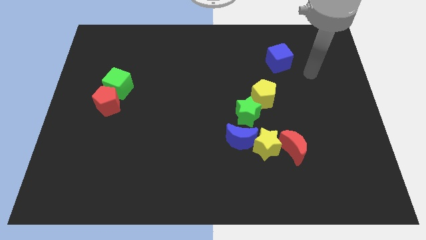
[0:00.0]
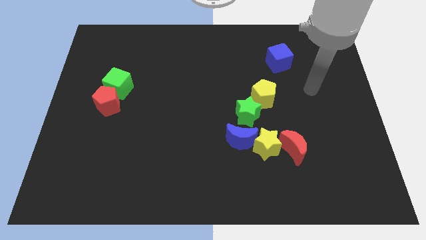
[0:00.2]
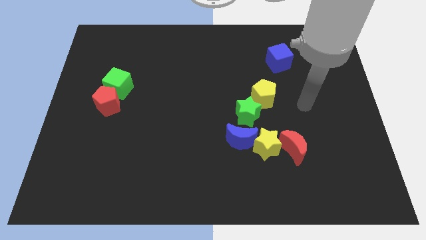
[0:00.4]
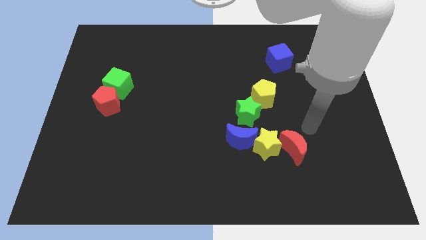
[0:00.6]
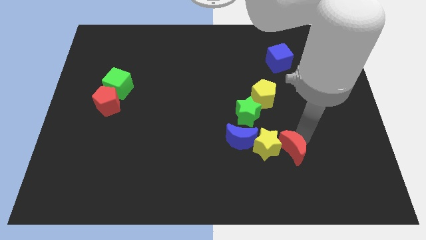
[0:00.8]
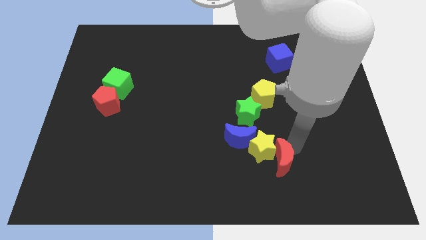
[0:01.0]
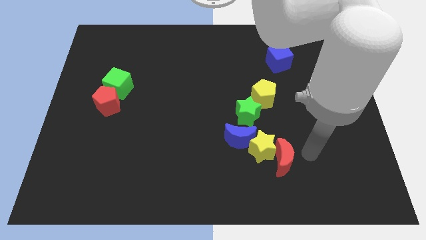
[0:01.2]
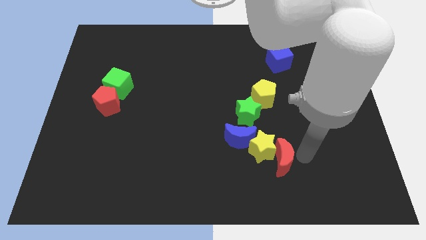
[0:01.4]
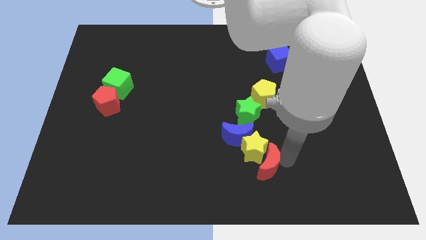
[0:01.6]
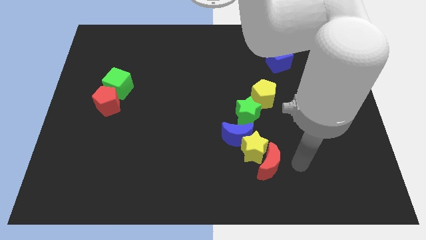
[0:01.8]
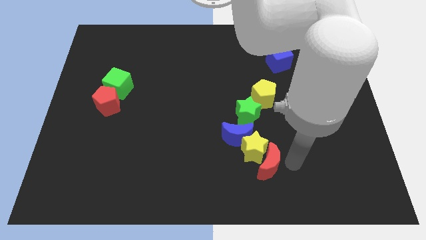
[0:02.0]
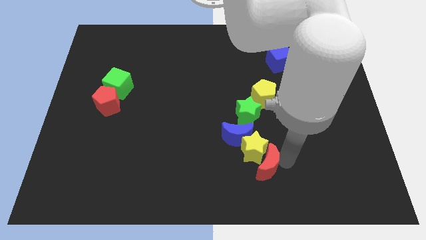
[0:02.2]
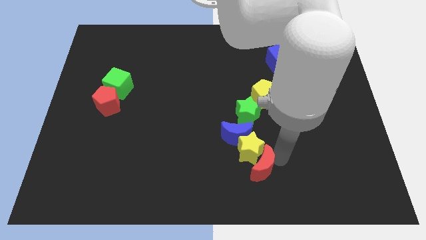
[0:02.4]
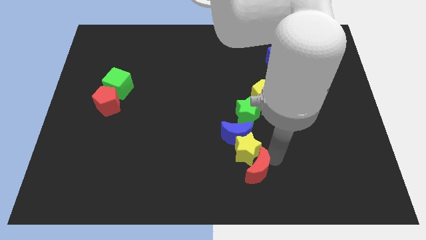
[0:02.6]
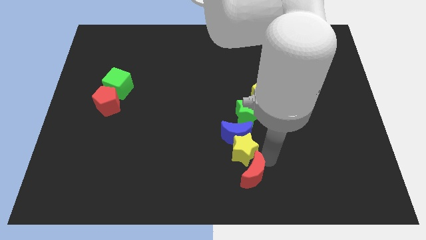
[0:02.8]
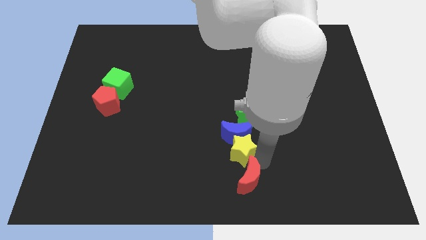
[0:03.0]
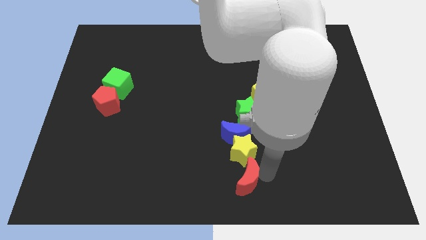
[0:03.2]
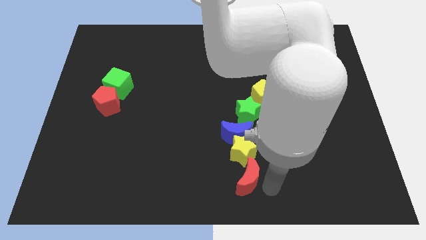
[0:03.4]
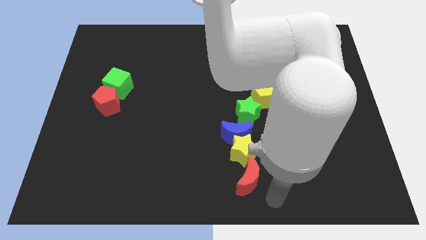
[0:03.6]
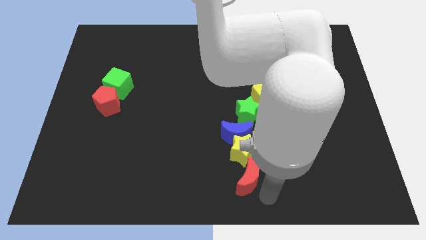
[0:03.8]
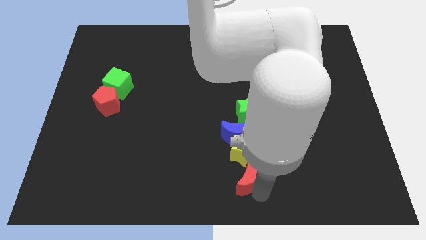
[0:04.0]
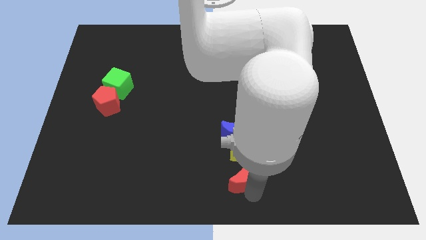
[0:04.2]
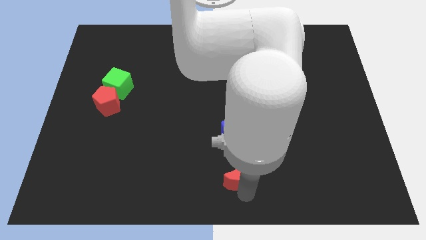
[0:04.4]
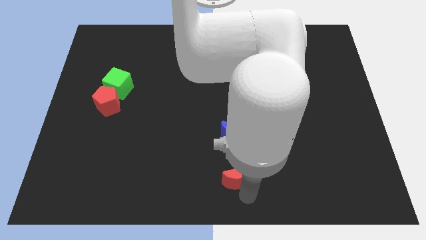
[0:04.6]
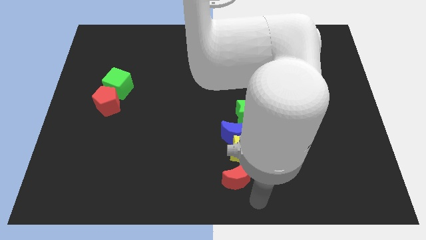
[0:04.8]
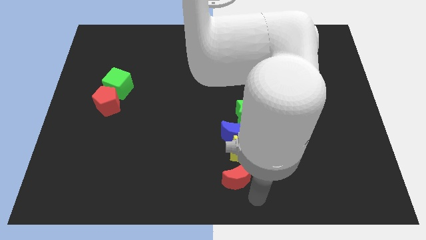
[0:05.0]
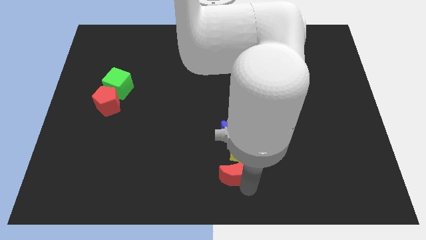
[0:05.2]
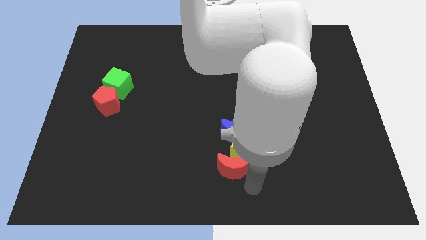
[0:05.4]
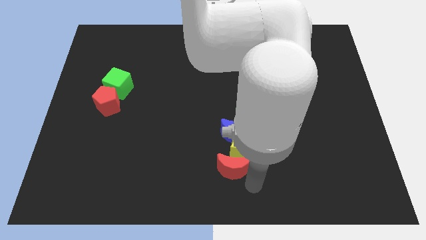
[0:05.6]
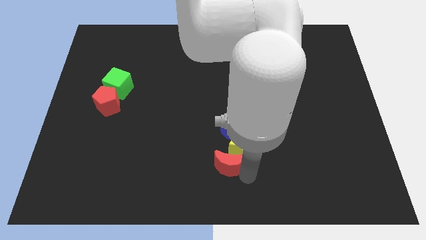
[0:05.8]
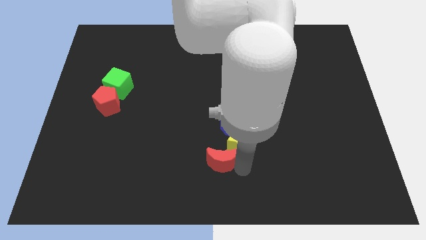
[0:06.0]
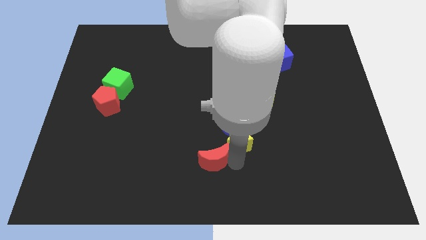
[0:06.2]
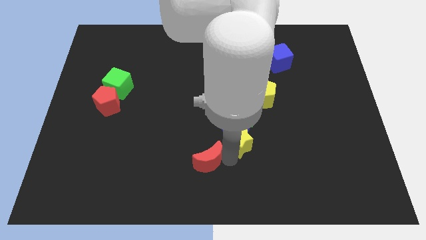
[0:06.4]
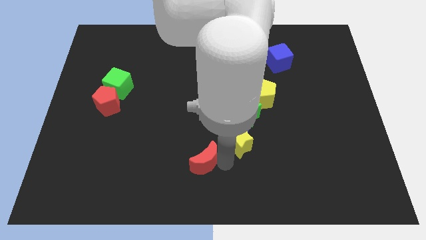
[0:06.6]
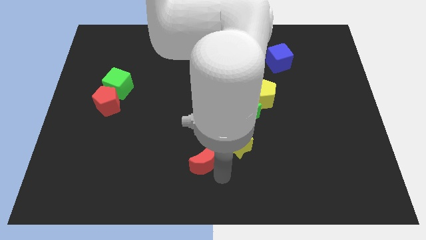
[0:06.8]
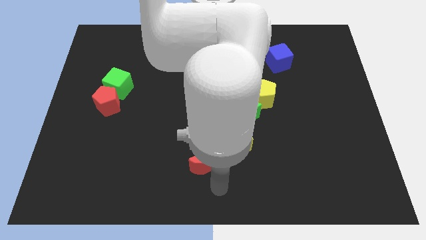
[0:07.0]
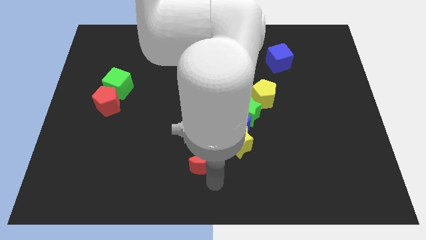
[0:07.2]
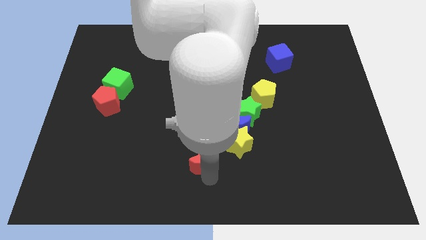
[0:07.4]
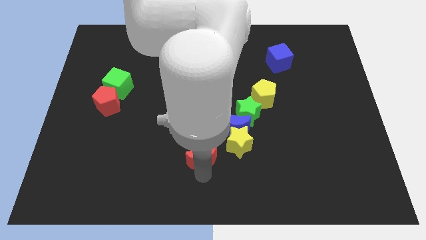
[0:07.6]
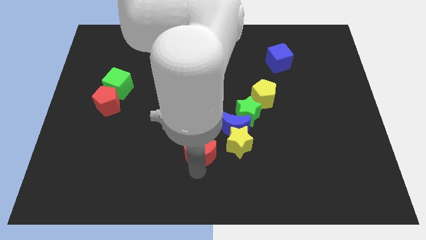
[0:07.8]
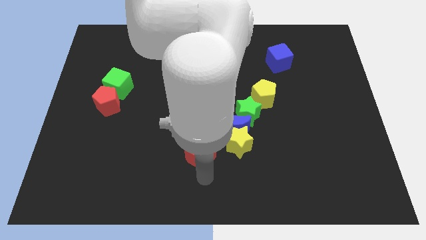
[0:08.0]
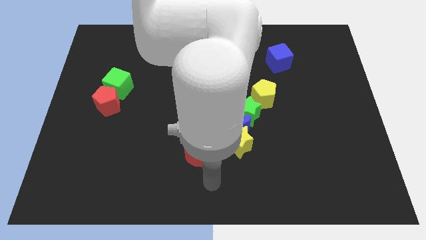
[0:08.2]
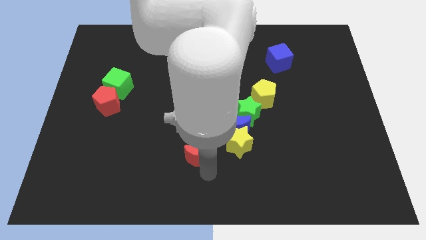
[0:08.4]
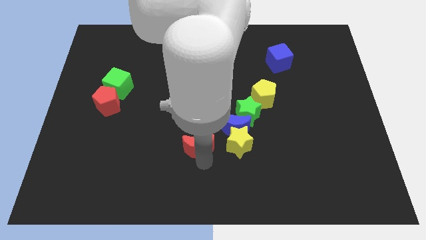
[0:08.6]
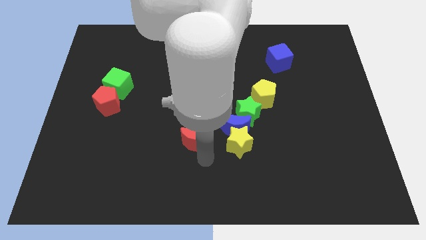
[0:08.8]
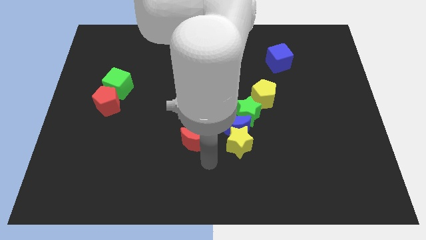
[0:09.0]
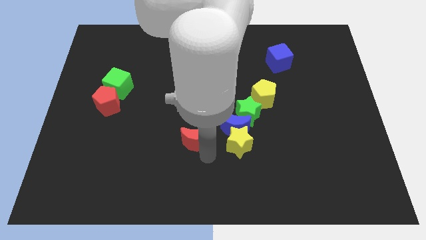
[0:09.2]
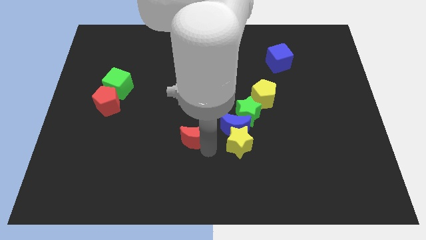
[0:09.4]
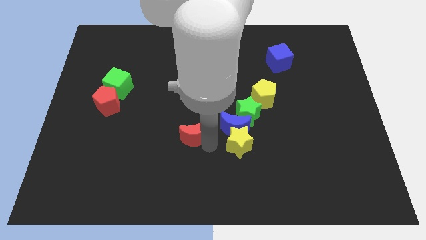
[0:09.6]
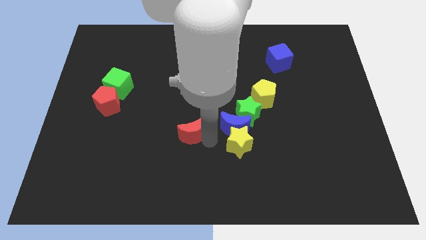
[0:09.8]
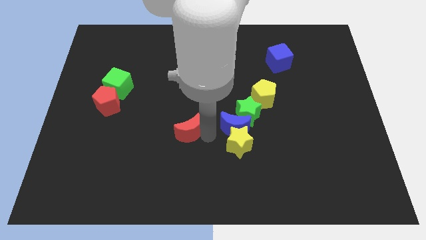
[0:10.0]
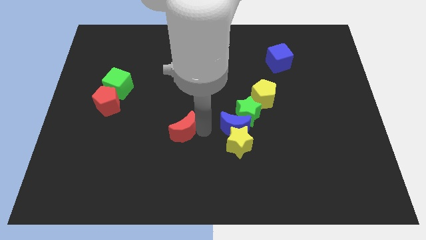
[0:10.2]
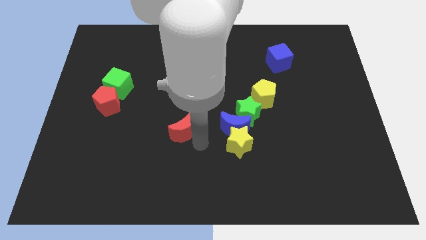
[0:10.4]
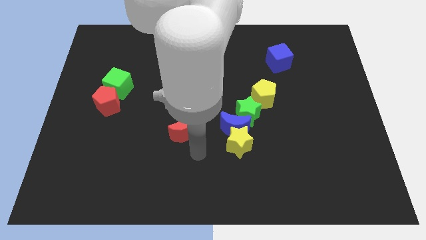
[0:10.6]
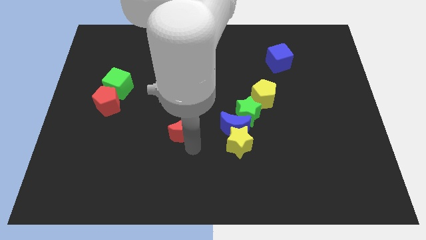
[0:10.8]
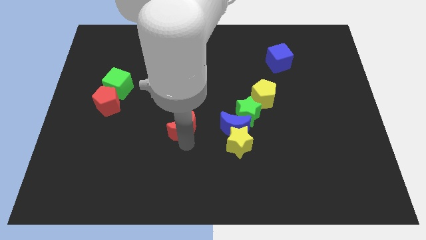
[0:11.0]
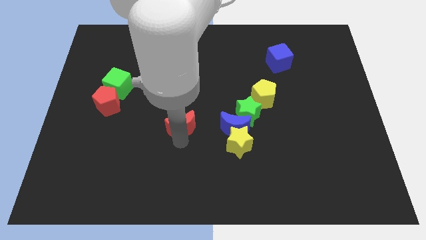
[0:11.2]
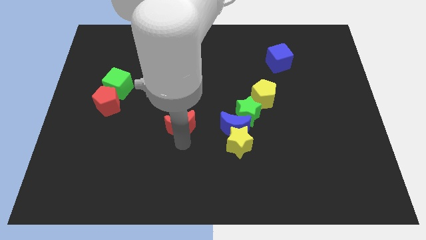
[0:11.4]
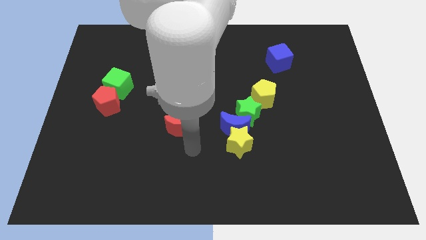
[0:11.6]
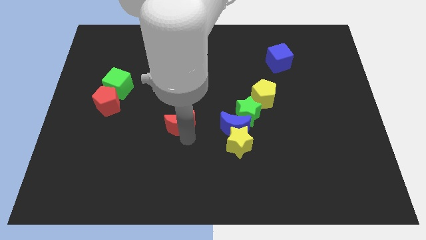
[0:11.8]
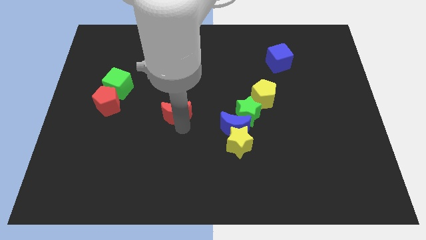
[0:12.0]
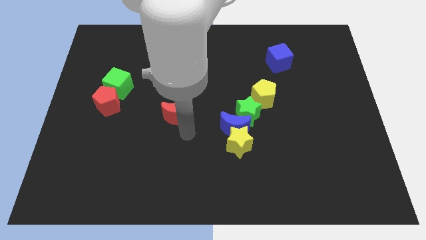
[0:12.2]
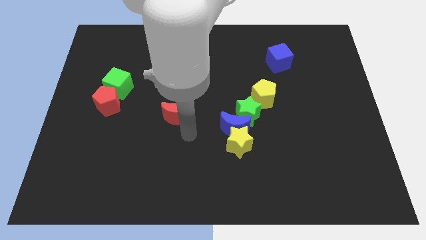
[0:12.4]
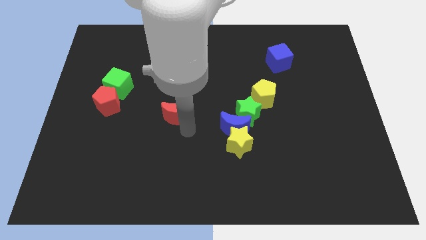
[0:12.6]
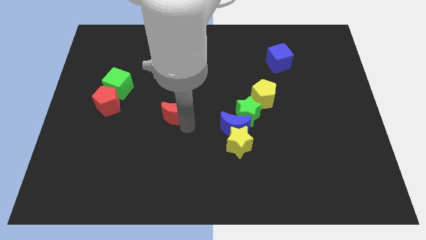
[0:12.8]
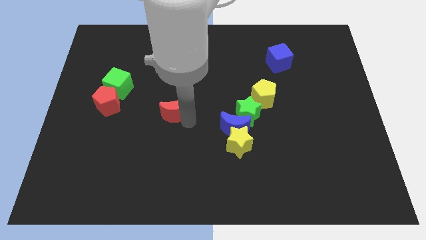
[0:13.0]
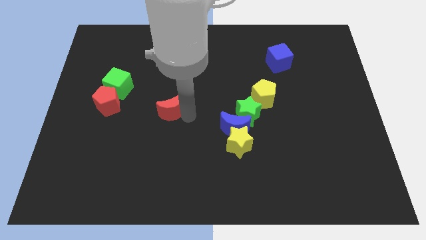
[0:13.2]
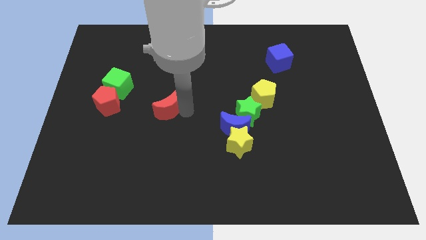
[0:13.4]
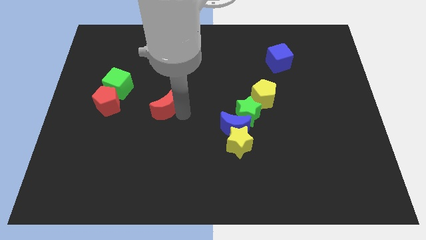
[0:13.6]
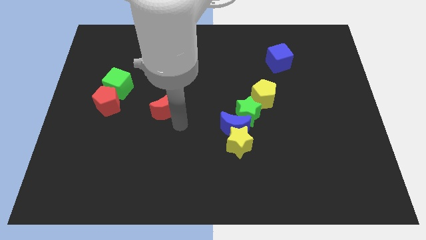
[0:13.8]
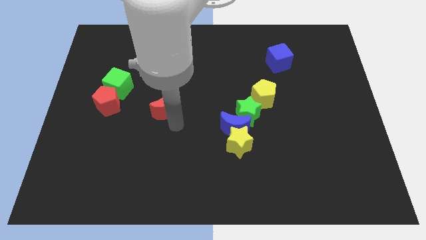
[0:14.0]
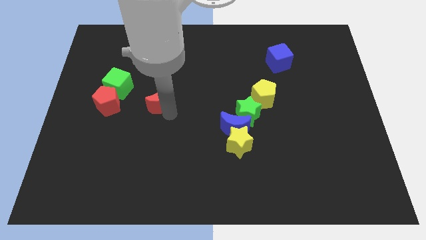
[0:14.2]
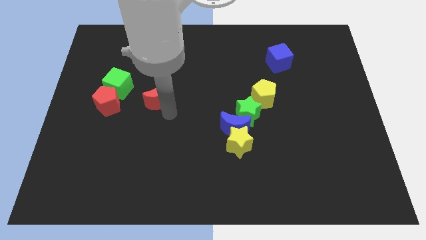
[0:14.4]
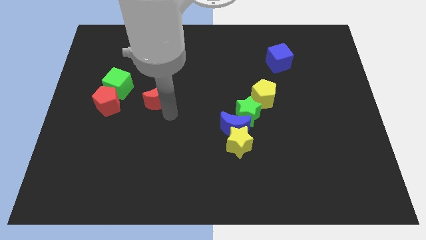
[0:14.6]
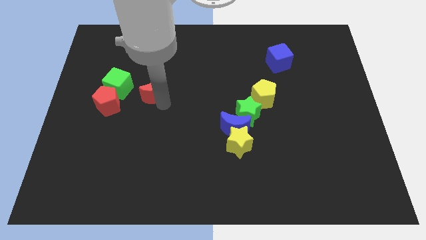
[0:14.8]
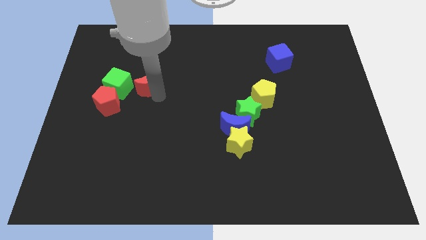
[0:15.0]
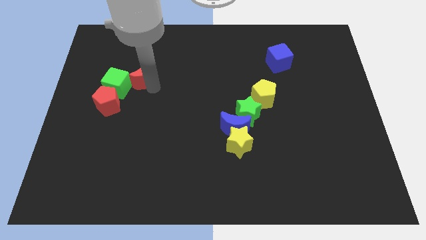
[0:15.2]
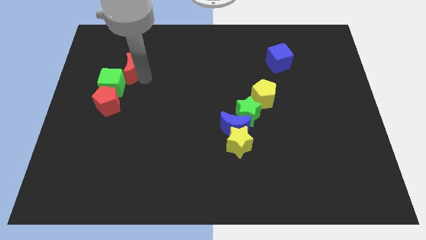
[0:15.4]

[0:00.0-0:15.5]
put the red moon to the top of the green cube
